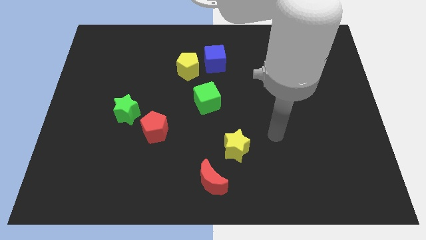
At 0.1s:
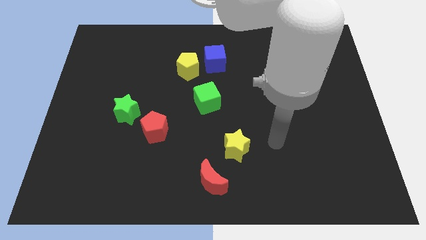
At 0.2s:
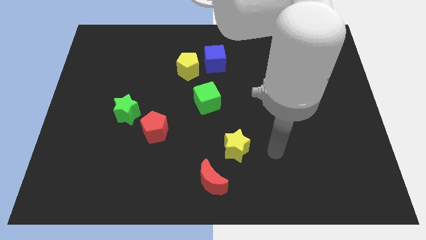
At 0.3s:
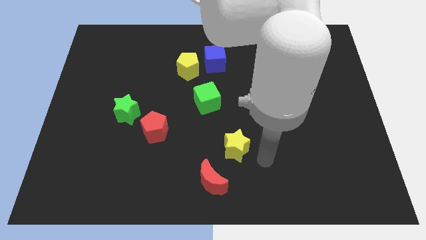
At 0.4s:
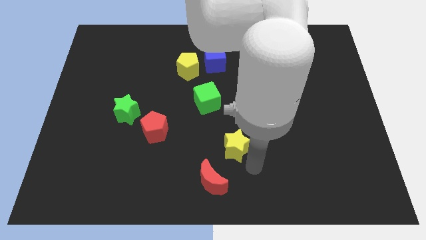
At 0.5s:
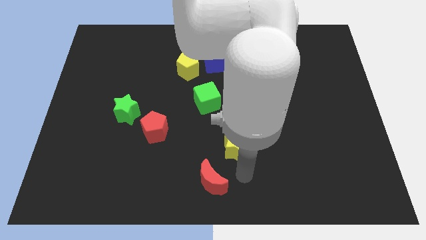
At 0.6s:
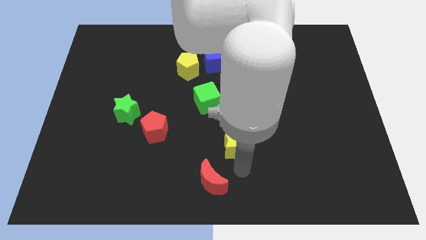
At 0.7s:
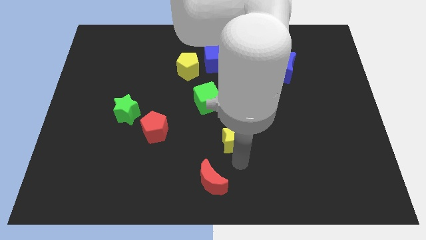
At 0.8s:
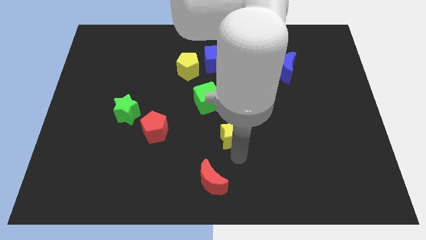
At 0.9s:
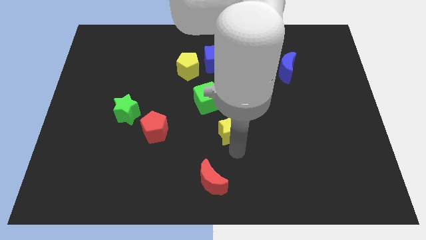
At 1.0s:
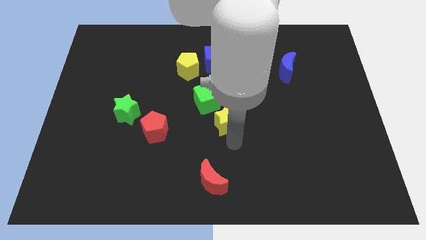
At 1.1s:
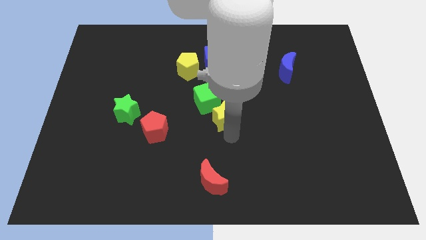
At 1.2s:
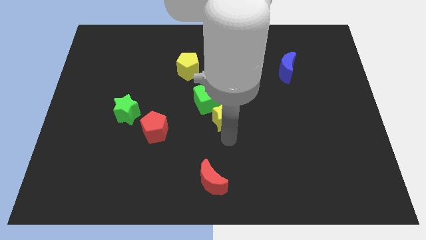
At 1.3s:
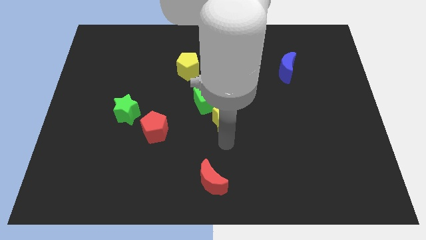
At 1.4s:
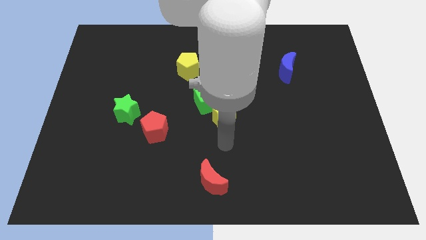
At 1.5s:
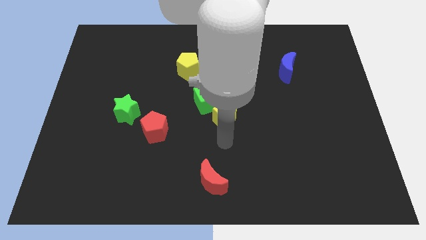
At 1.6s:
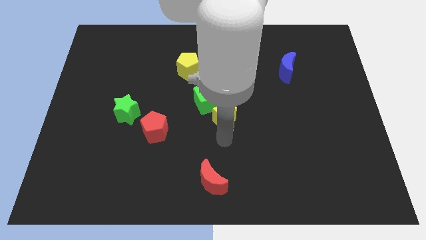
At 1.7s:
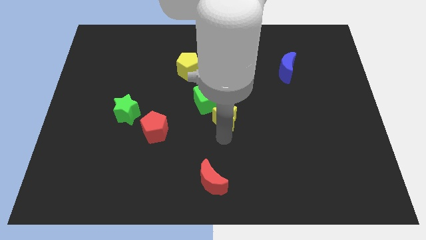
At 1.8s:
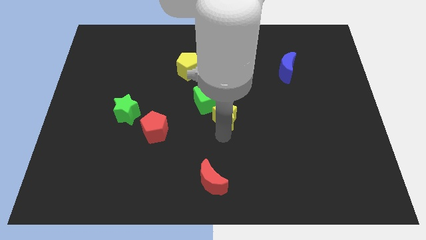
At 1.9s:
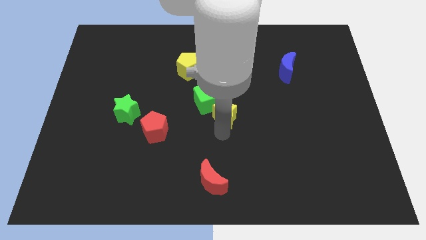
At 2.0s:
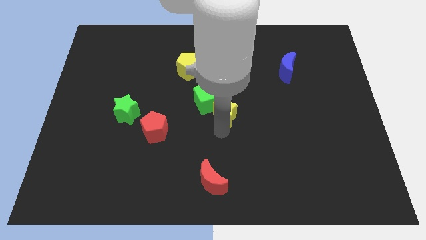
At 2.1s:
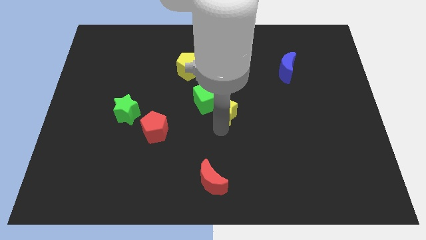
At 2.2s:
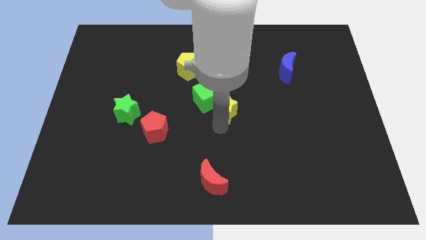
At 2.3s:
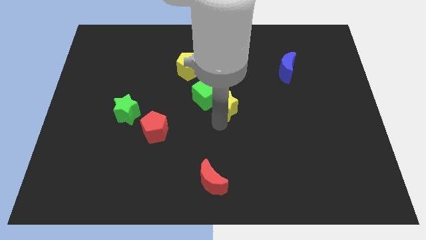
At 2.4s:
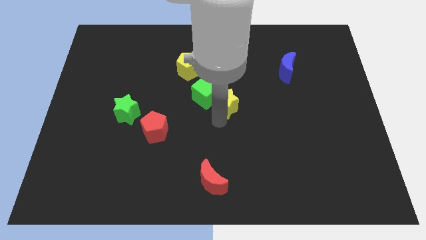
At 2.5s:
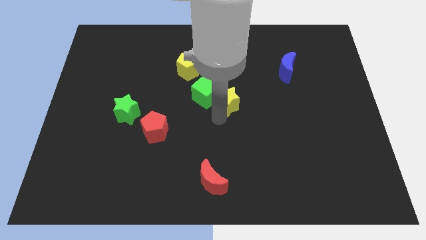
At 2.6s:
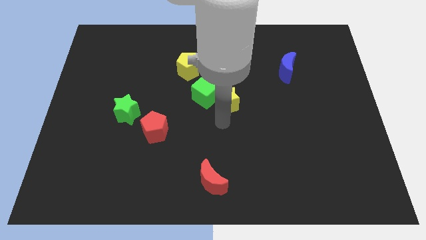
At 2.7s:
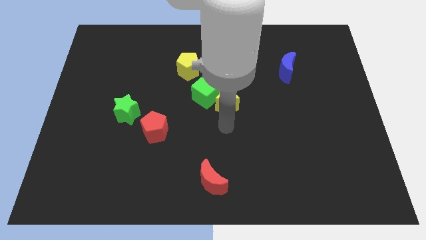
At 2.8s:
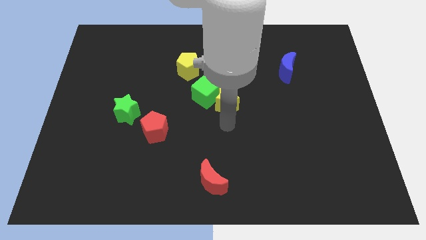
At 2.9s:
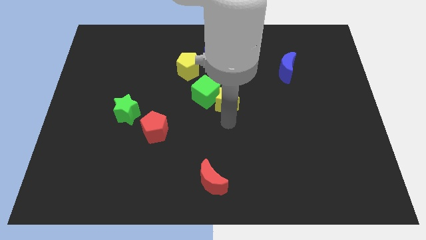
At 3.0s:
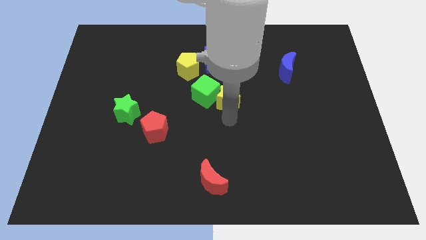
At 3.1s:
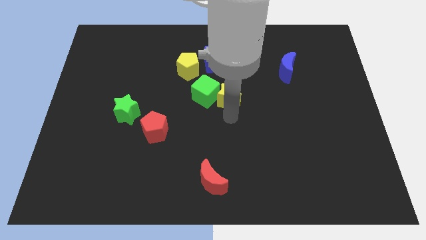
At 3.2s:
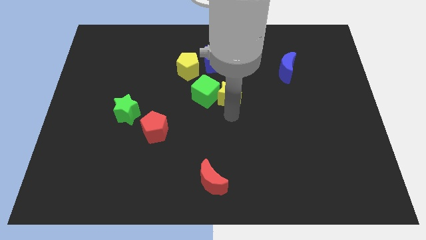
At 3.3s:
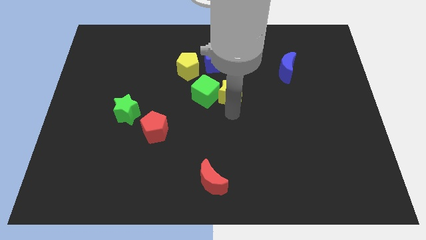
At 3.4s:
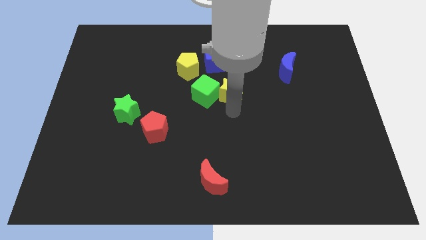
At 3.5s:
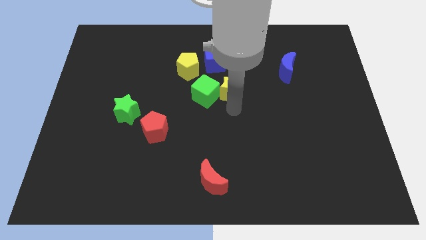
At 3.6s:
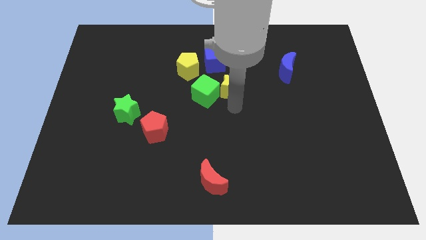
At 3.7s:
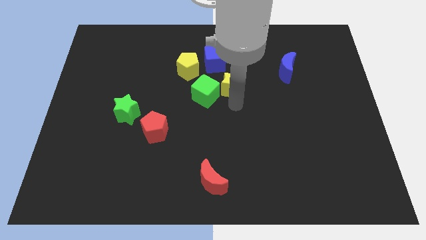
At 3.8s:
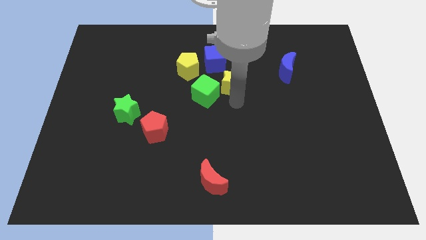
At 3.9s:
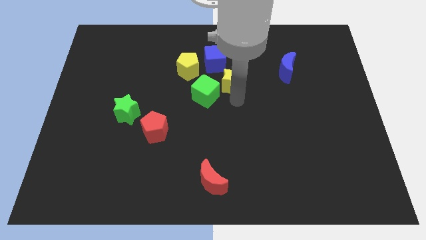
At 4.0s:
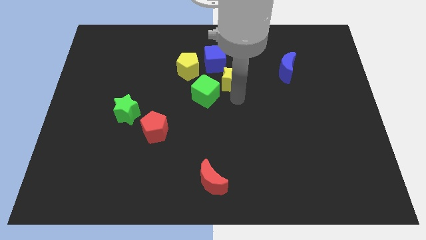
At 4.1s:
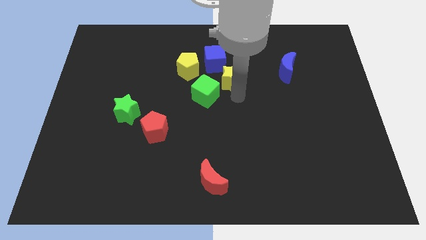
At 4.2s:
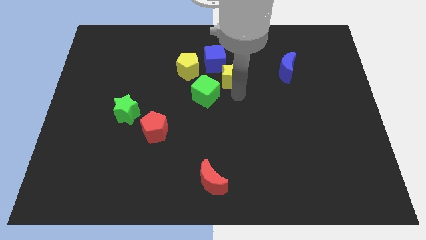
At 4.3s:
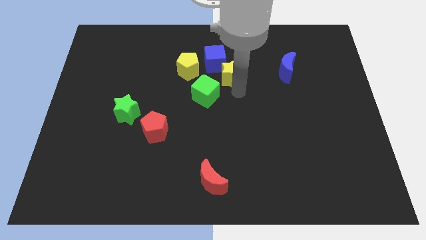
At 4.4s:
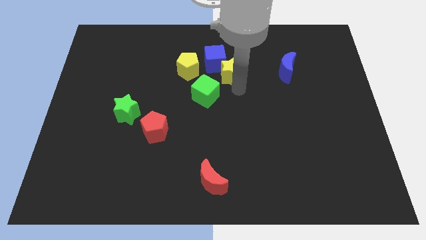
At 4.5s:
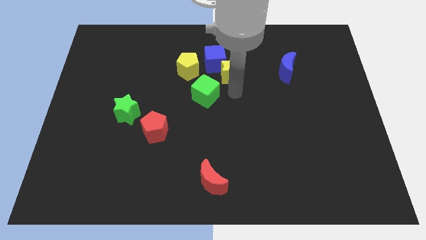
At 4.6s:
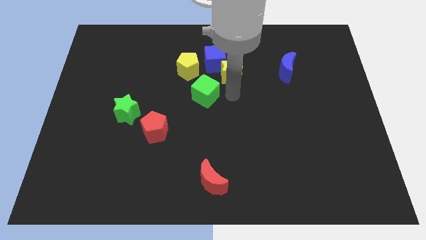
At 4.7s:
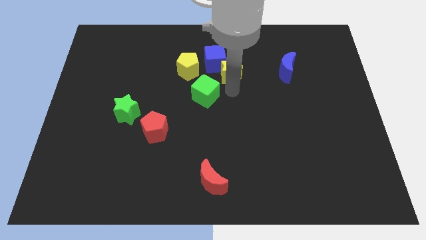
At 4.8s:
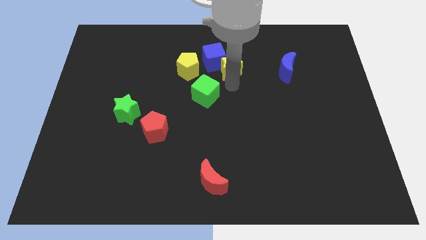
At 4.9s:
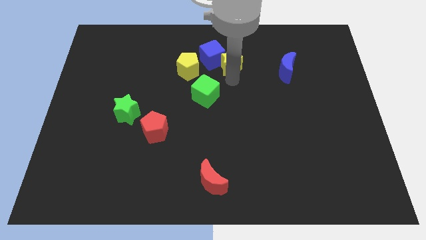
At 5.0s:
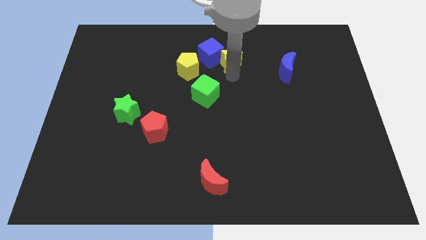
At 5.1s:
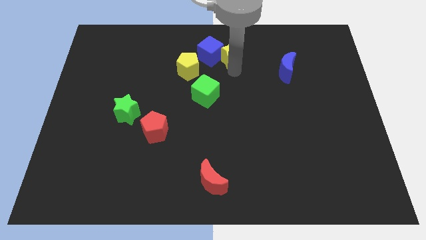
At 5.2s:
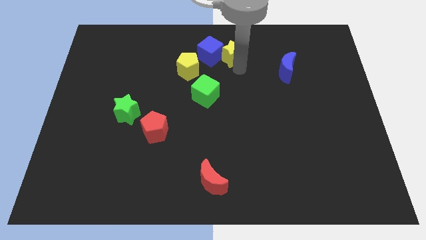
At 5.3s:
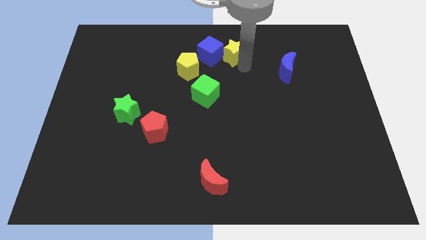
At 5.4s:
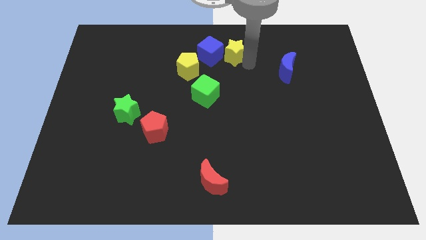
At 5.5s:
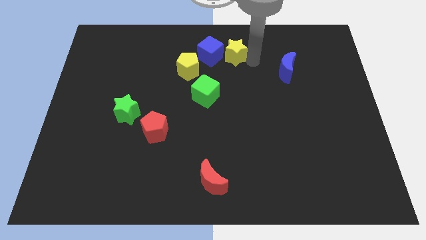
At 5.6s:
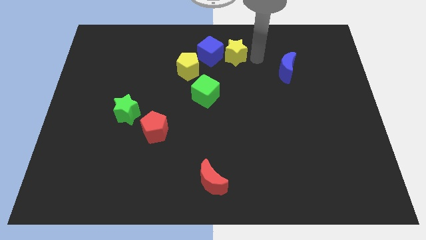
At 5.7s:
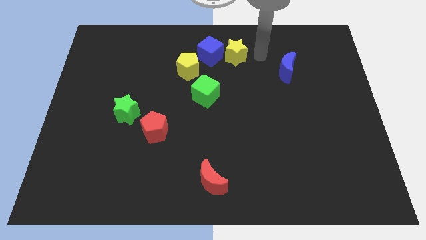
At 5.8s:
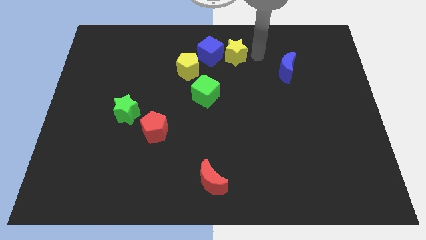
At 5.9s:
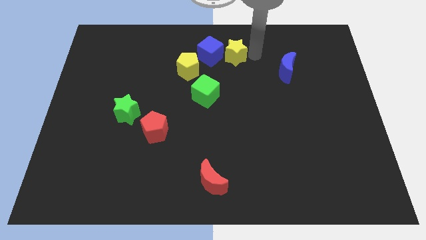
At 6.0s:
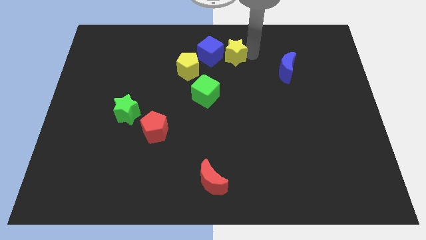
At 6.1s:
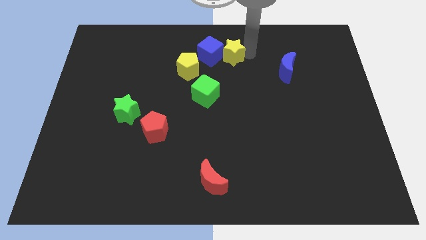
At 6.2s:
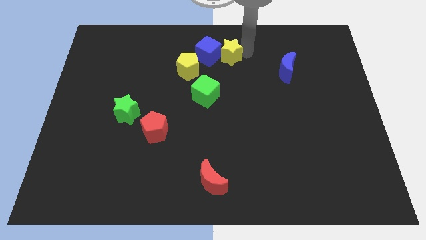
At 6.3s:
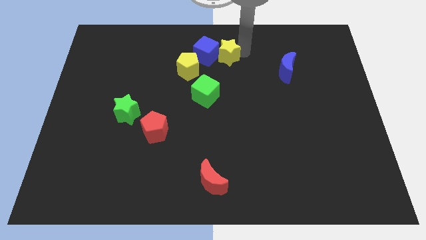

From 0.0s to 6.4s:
push the yellow star to the top right side of the yellow pentagon
